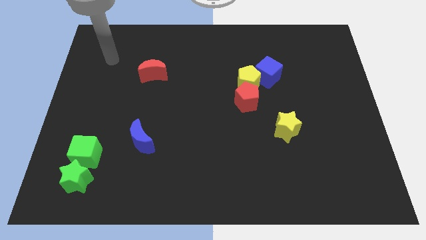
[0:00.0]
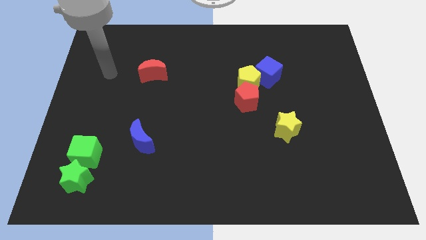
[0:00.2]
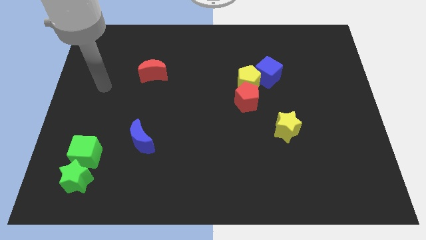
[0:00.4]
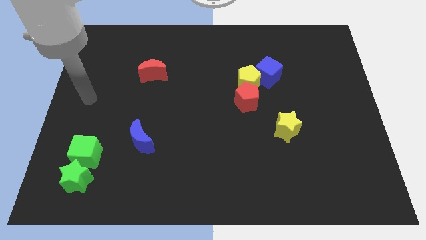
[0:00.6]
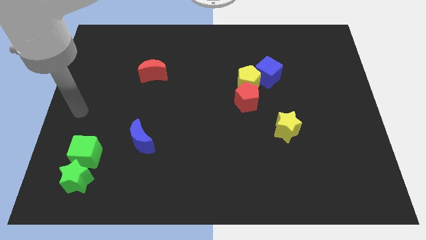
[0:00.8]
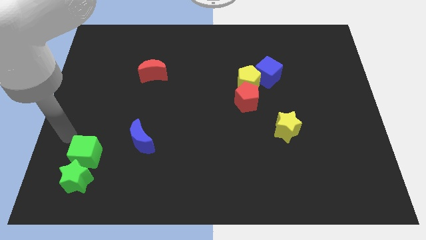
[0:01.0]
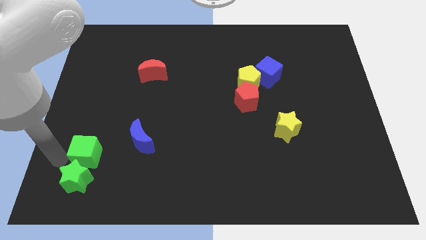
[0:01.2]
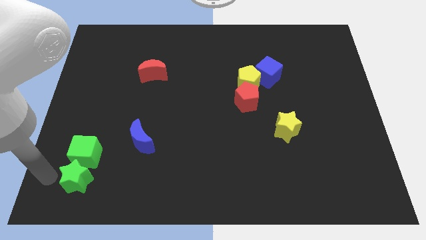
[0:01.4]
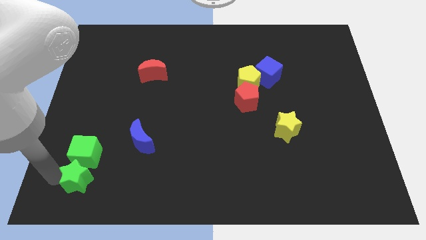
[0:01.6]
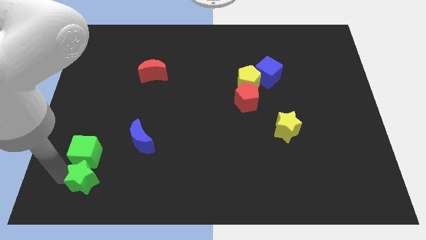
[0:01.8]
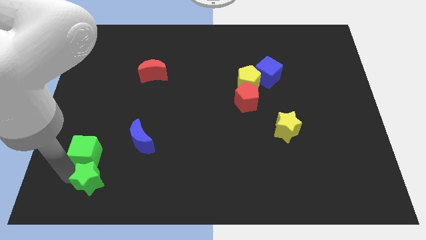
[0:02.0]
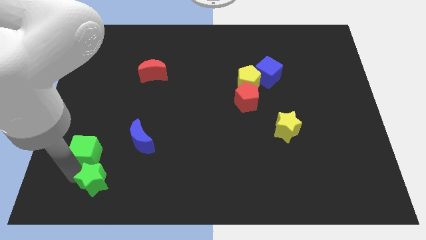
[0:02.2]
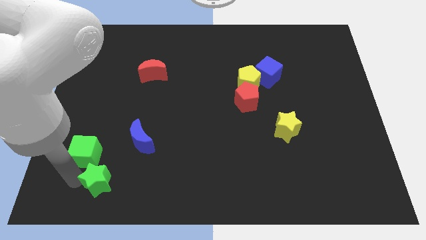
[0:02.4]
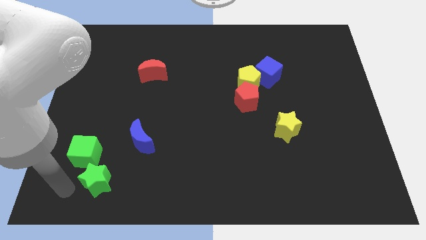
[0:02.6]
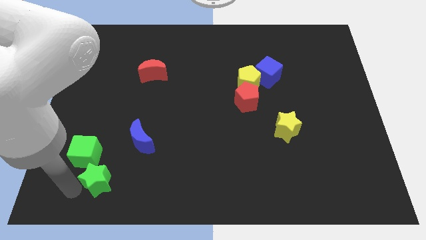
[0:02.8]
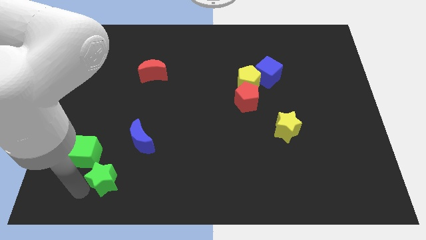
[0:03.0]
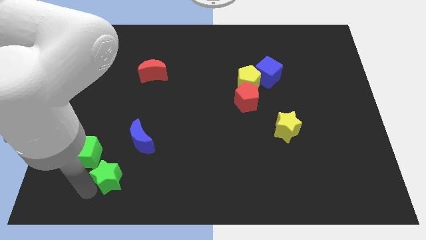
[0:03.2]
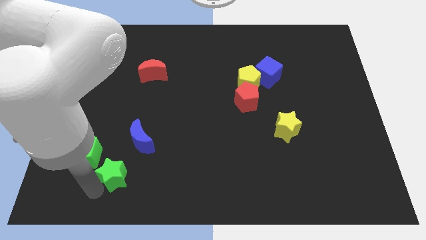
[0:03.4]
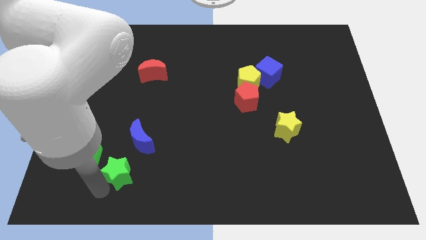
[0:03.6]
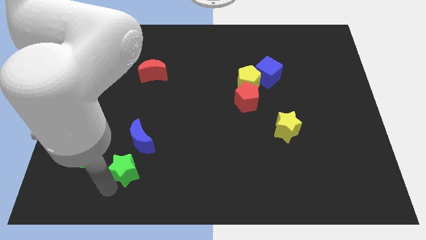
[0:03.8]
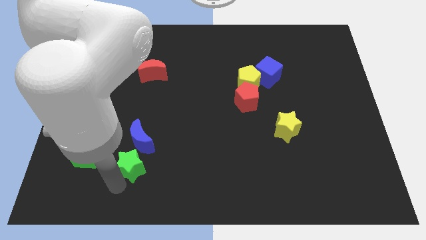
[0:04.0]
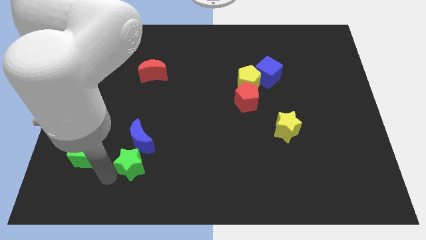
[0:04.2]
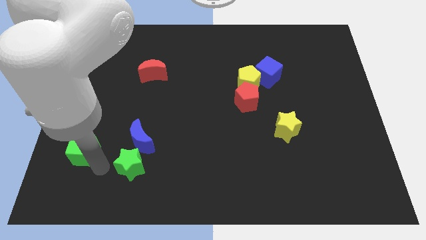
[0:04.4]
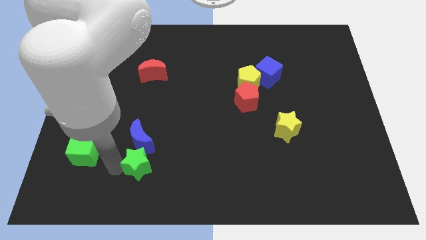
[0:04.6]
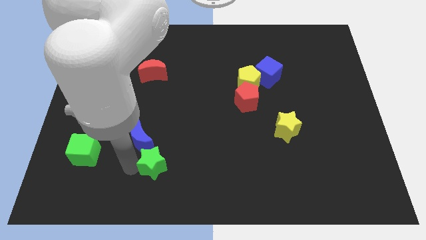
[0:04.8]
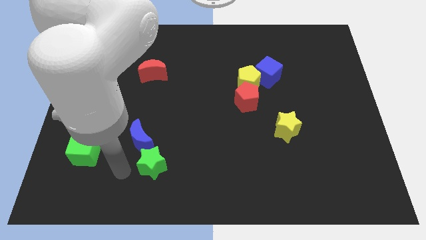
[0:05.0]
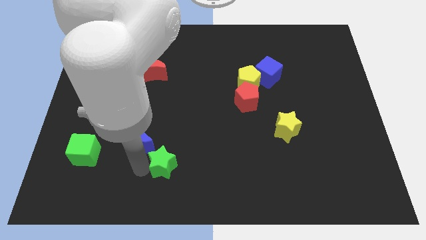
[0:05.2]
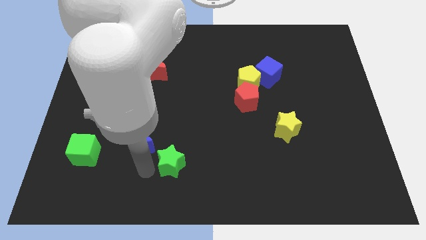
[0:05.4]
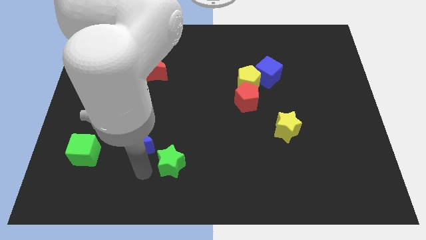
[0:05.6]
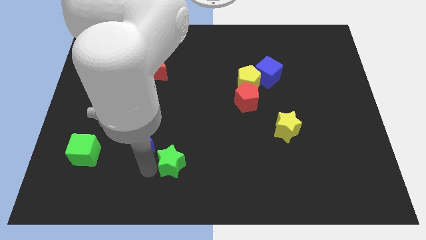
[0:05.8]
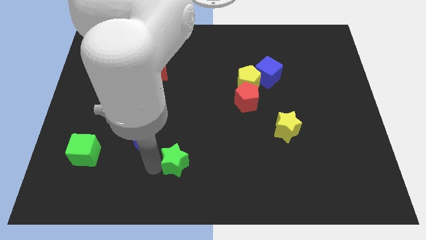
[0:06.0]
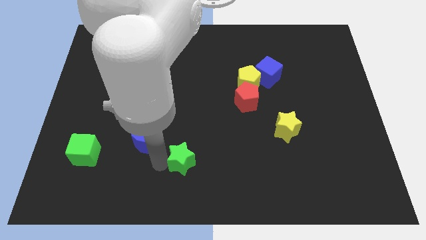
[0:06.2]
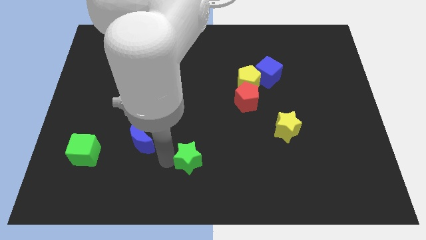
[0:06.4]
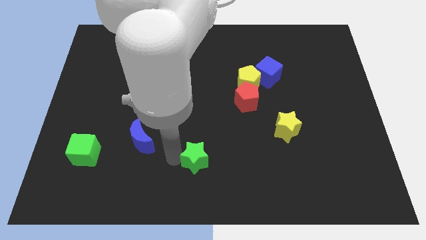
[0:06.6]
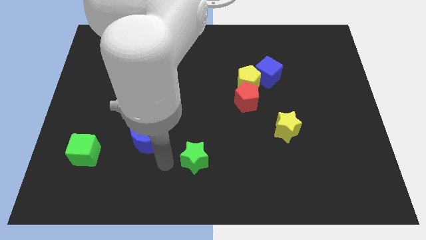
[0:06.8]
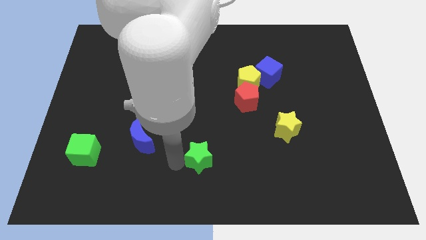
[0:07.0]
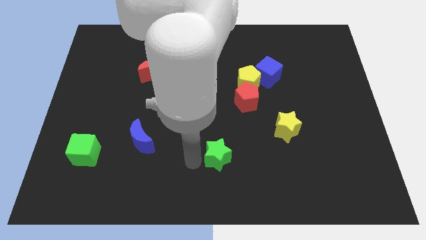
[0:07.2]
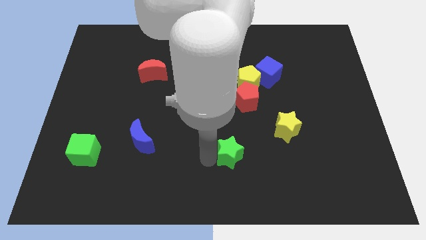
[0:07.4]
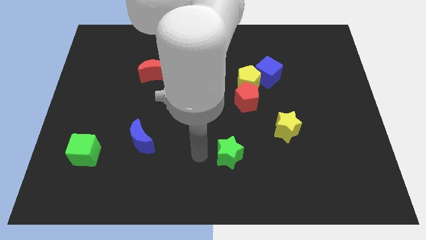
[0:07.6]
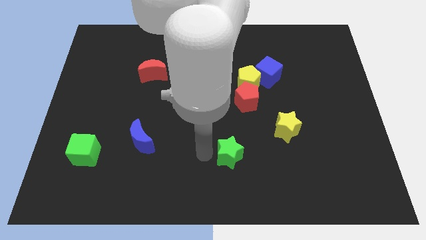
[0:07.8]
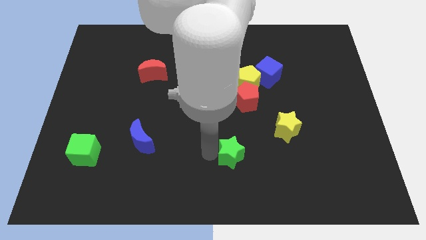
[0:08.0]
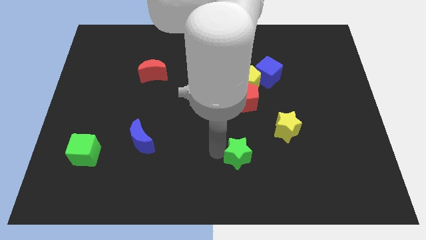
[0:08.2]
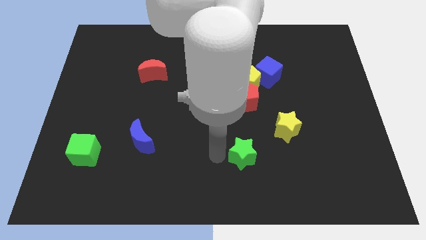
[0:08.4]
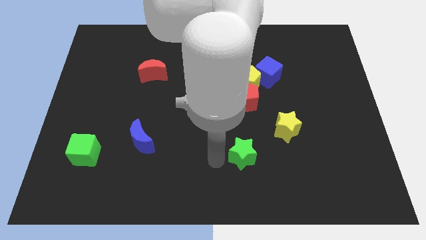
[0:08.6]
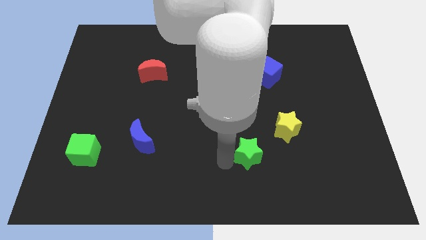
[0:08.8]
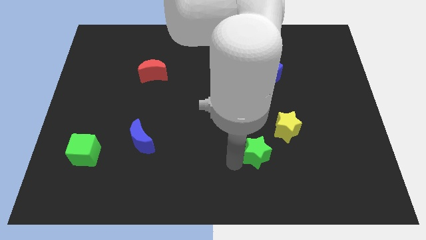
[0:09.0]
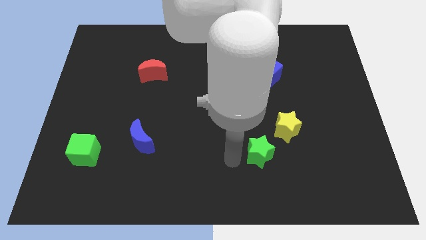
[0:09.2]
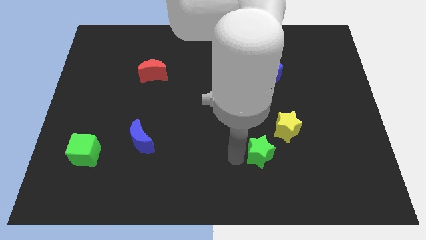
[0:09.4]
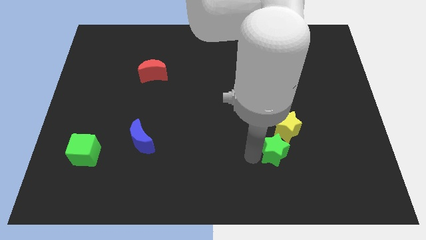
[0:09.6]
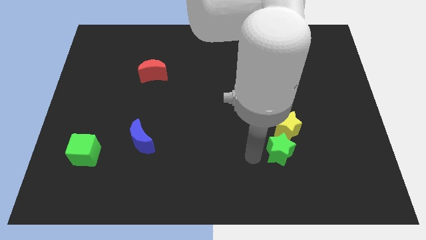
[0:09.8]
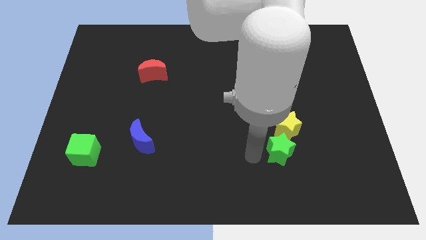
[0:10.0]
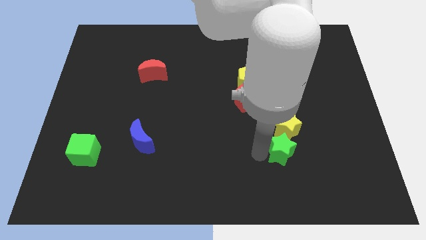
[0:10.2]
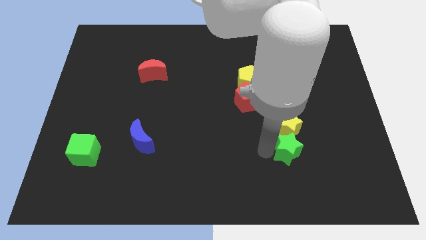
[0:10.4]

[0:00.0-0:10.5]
push the green star to the bottom right side of the yellow star

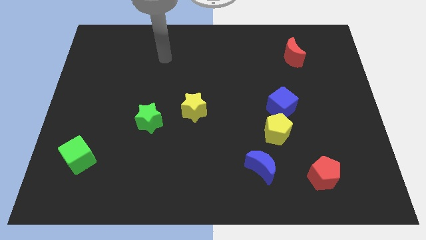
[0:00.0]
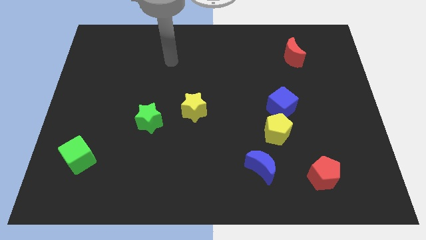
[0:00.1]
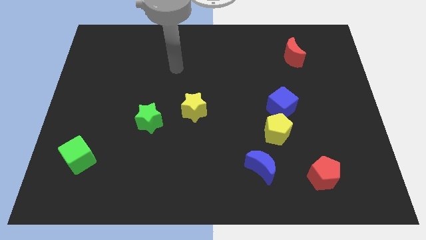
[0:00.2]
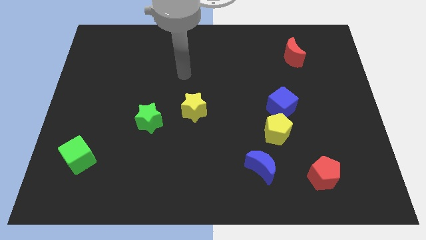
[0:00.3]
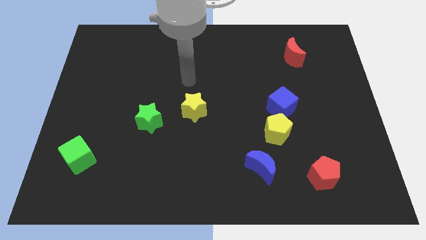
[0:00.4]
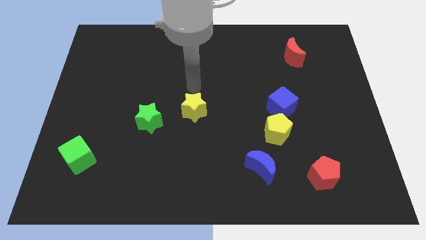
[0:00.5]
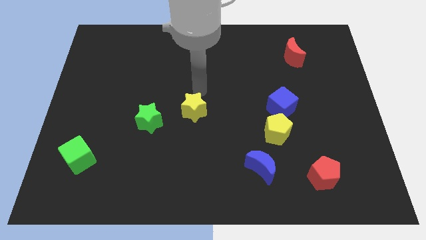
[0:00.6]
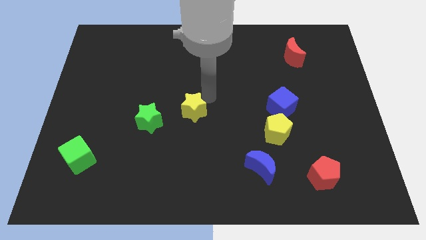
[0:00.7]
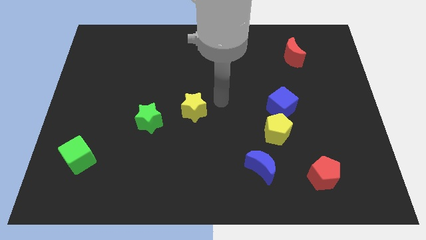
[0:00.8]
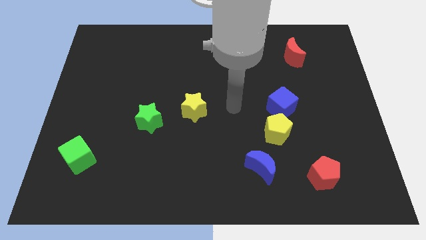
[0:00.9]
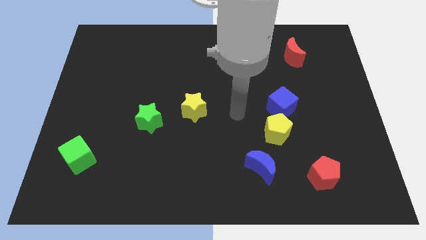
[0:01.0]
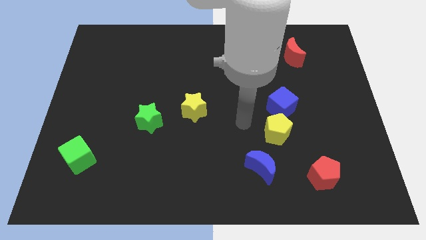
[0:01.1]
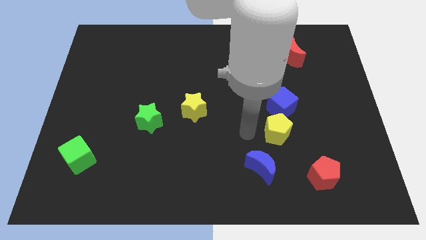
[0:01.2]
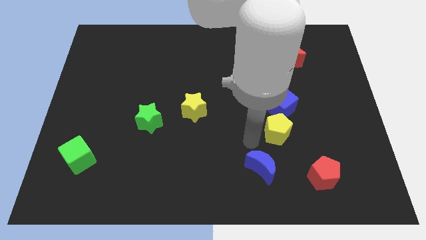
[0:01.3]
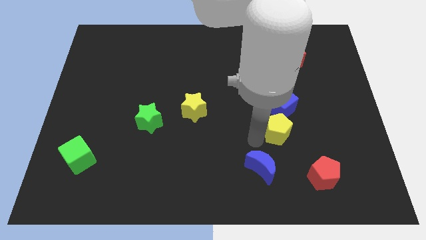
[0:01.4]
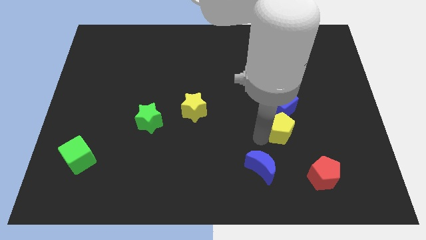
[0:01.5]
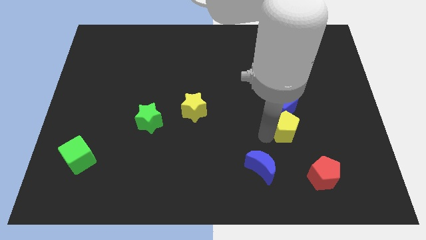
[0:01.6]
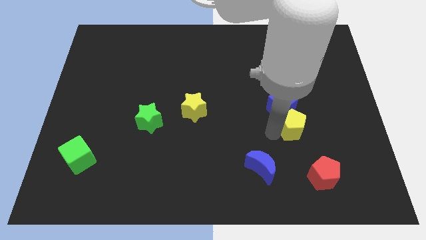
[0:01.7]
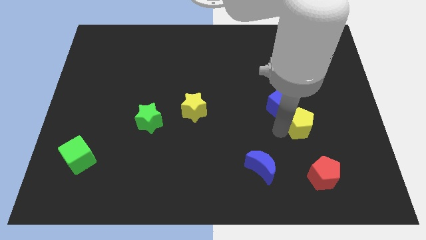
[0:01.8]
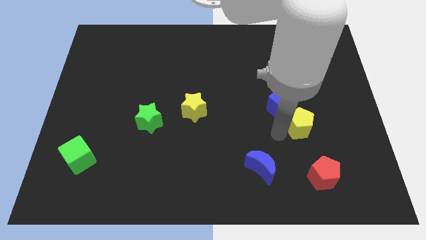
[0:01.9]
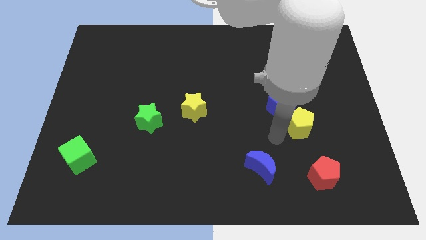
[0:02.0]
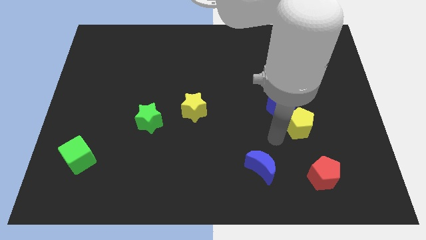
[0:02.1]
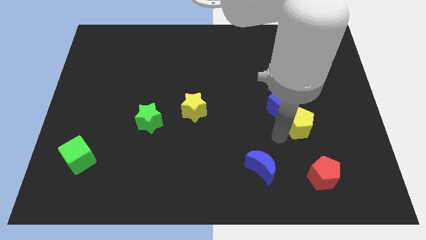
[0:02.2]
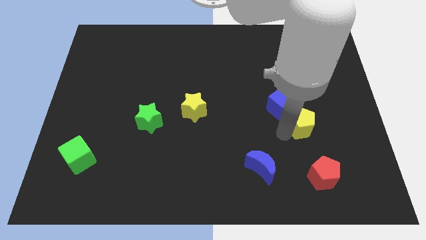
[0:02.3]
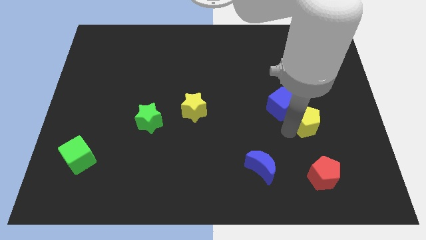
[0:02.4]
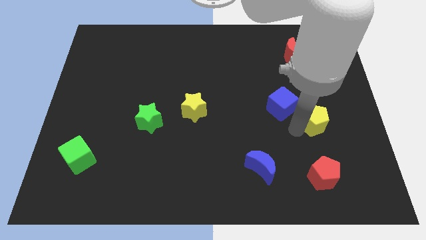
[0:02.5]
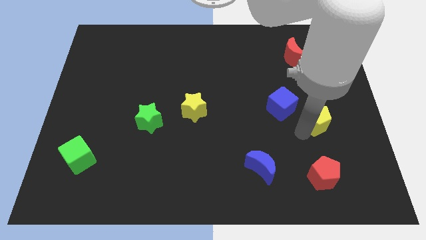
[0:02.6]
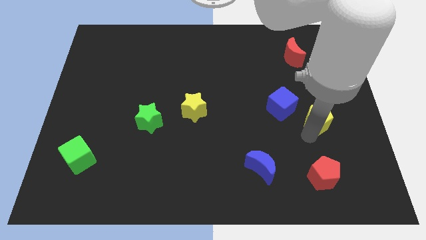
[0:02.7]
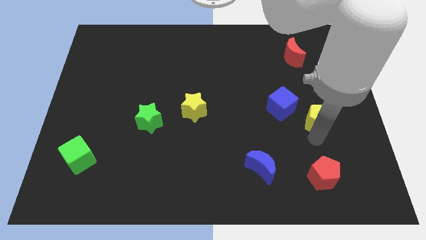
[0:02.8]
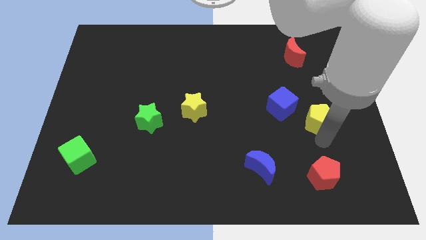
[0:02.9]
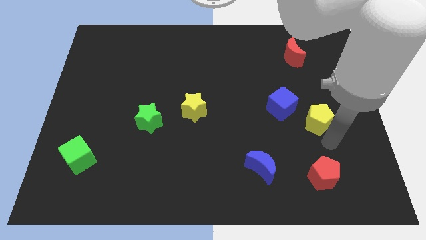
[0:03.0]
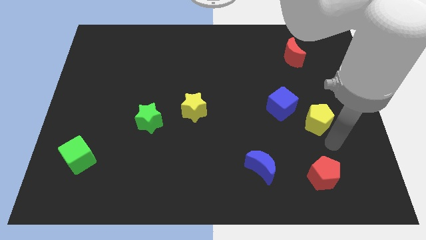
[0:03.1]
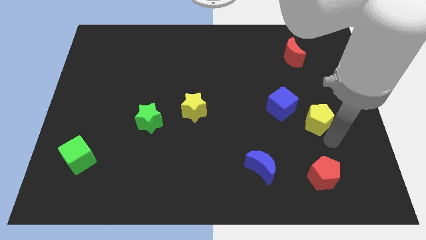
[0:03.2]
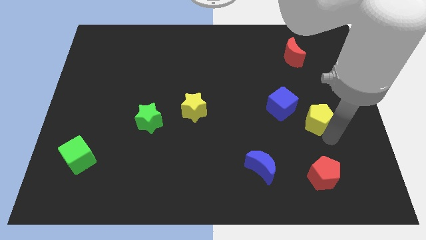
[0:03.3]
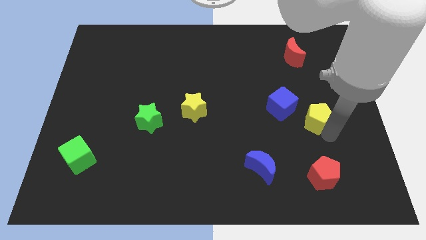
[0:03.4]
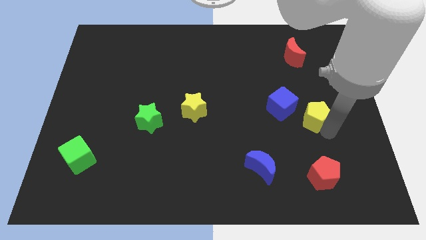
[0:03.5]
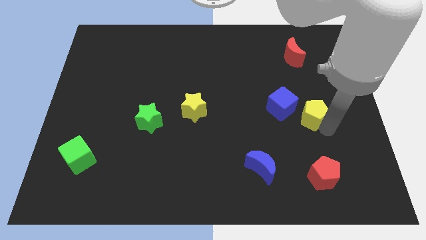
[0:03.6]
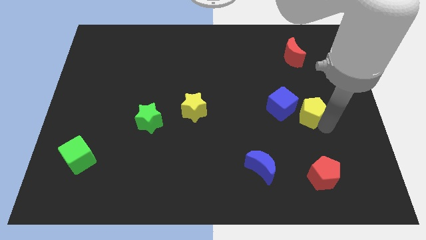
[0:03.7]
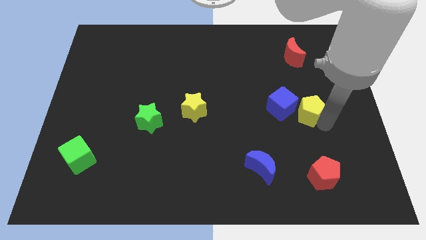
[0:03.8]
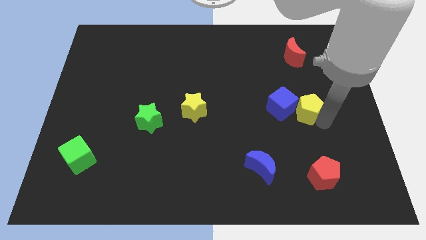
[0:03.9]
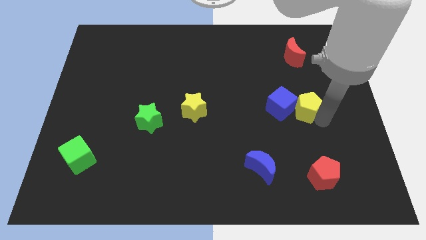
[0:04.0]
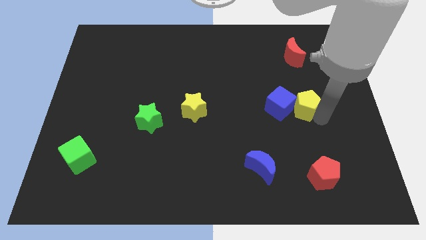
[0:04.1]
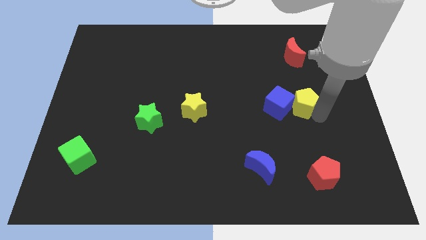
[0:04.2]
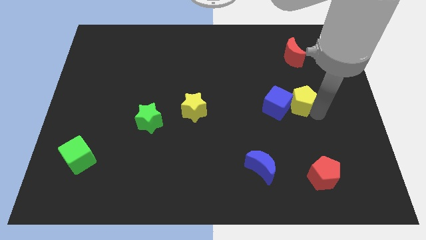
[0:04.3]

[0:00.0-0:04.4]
push the yellow pentagon to the bottom side of the red moon
